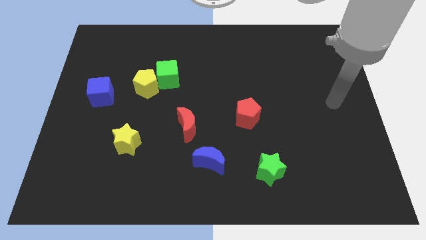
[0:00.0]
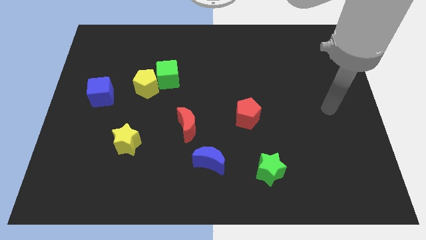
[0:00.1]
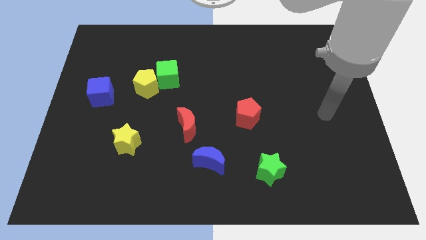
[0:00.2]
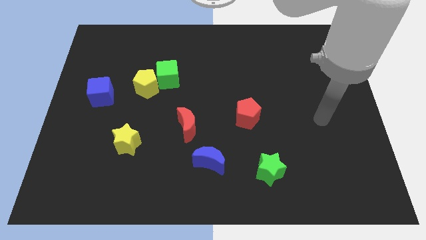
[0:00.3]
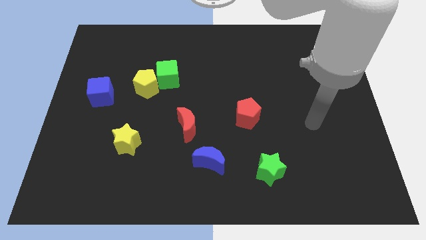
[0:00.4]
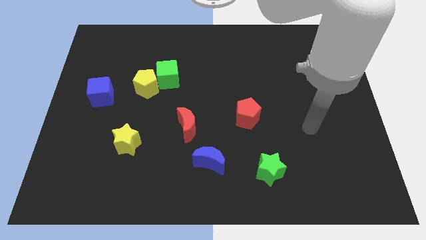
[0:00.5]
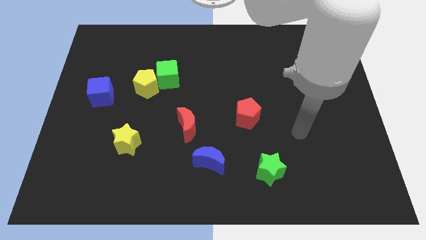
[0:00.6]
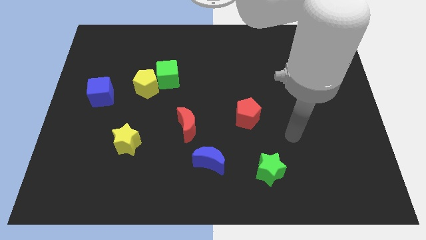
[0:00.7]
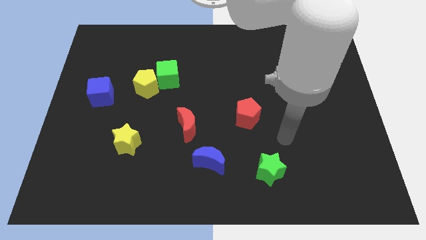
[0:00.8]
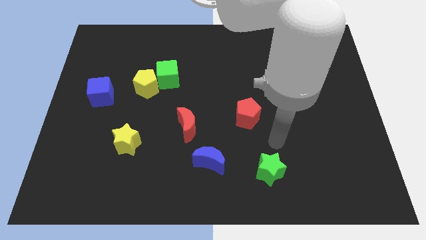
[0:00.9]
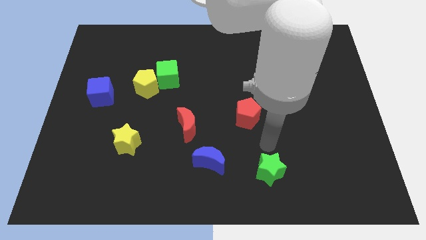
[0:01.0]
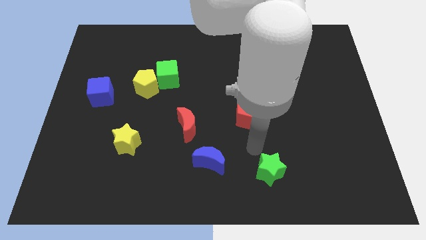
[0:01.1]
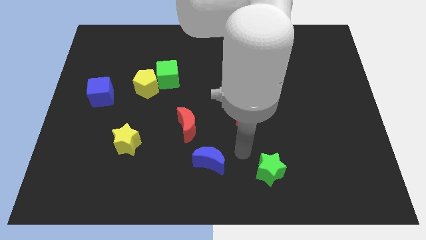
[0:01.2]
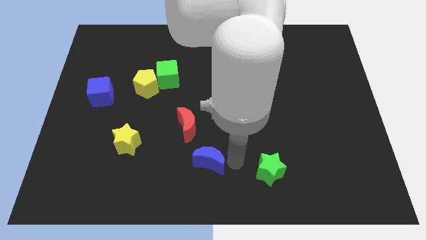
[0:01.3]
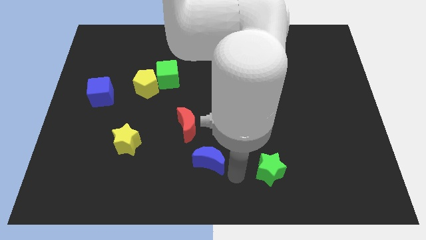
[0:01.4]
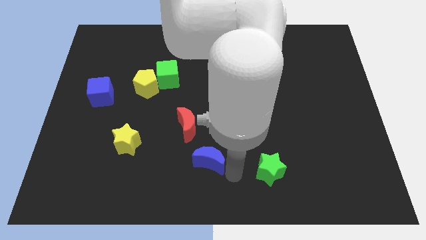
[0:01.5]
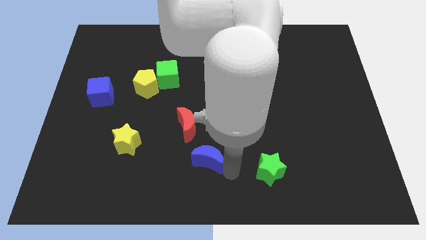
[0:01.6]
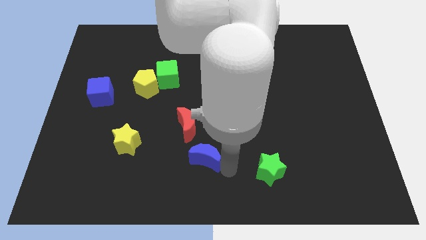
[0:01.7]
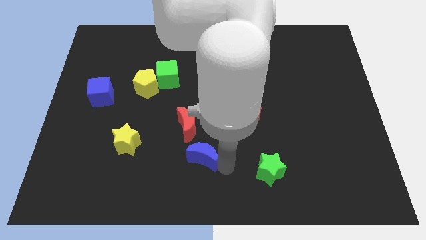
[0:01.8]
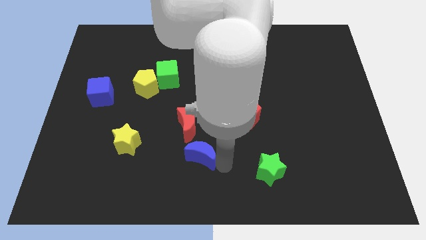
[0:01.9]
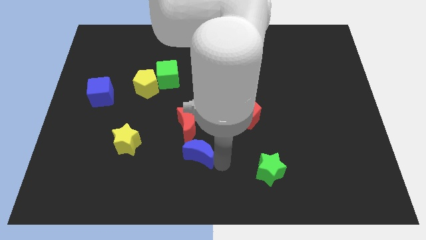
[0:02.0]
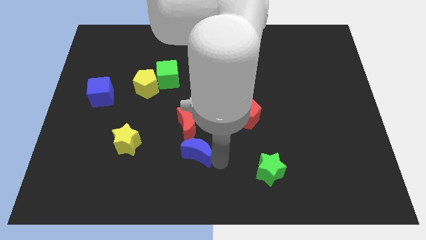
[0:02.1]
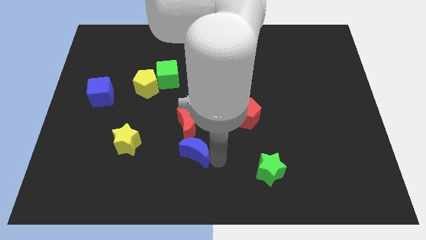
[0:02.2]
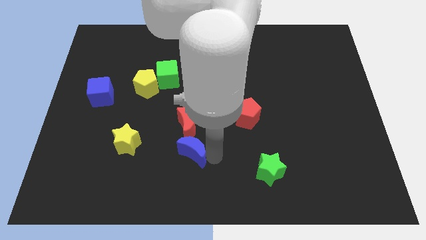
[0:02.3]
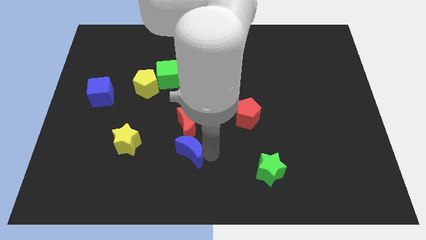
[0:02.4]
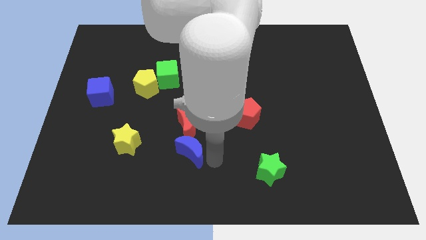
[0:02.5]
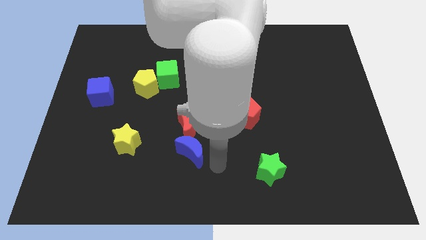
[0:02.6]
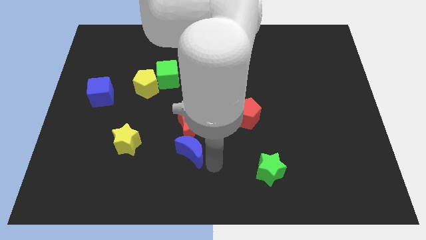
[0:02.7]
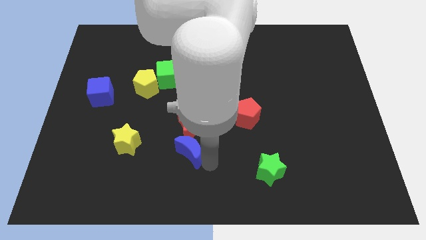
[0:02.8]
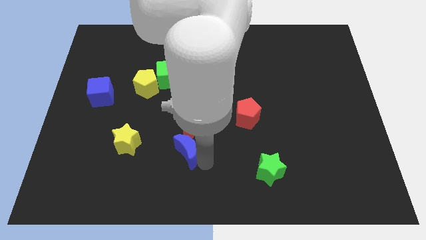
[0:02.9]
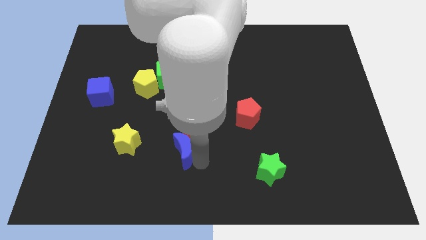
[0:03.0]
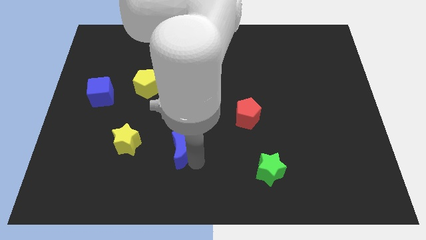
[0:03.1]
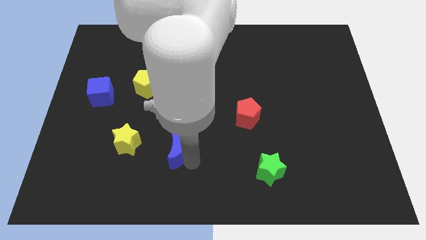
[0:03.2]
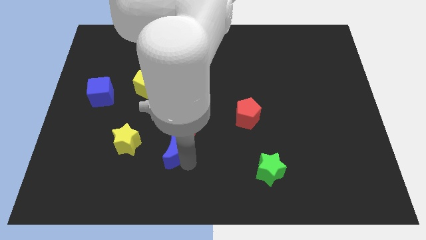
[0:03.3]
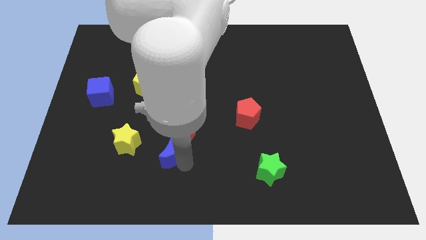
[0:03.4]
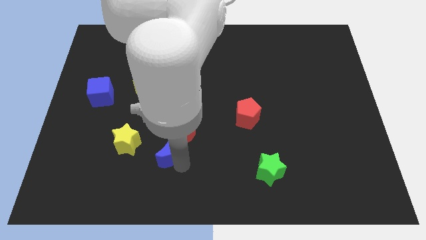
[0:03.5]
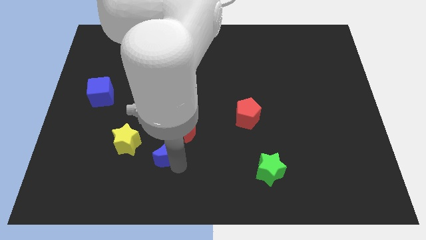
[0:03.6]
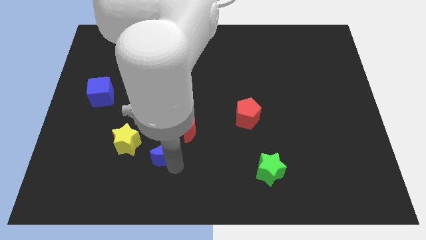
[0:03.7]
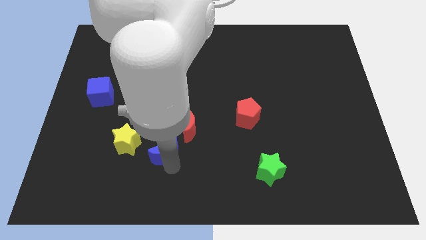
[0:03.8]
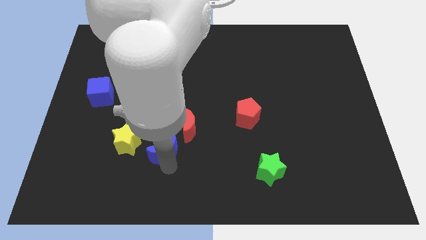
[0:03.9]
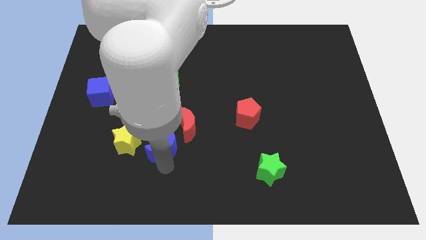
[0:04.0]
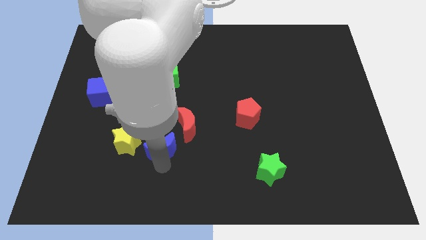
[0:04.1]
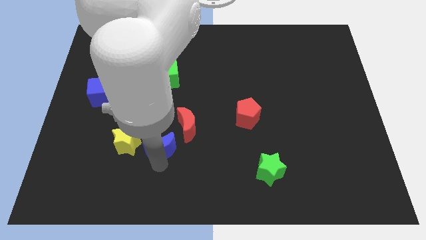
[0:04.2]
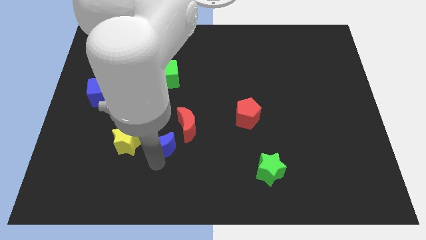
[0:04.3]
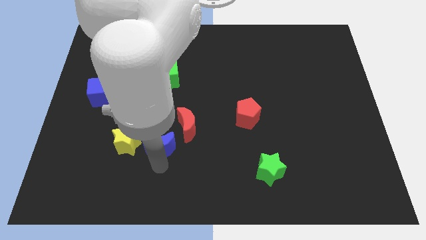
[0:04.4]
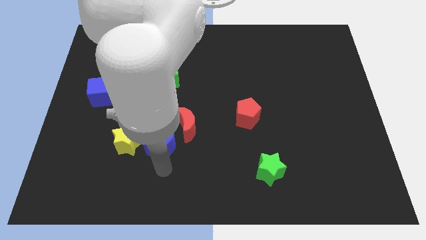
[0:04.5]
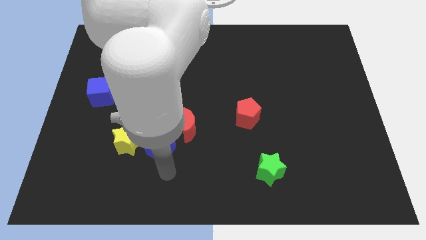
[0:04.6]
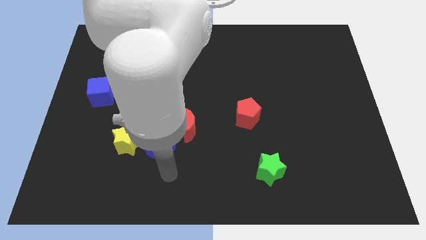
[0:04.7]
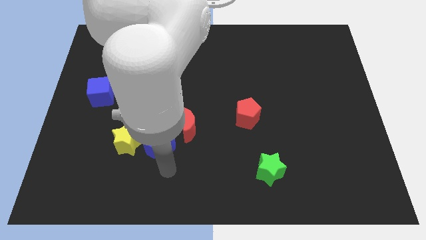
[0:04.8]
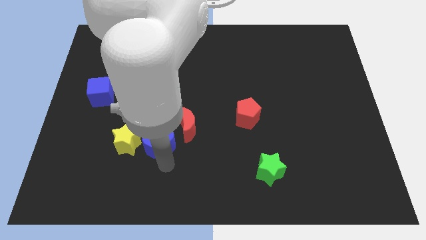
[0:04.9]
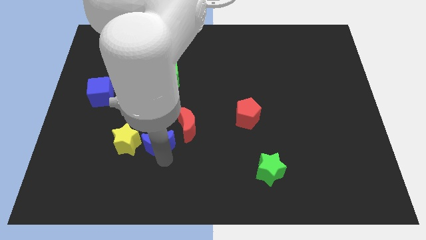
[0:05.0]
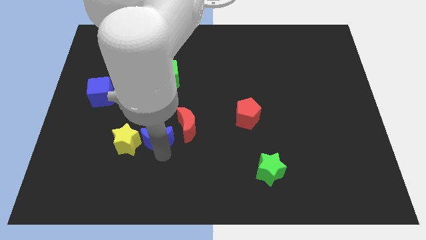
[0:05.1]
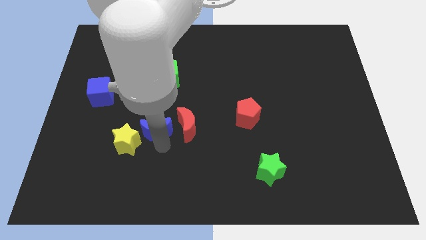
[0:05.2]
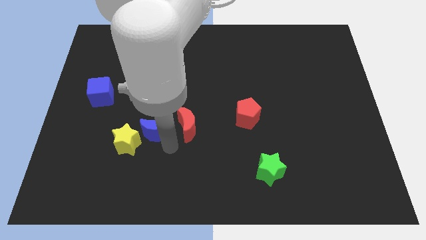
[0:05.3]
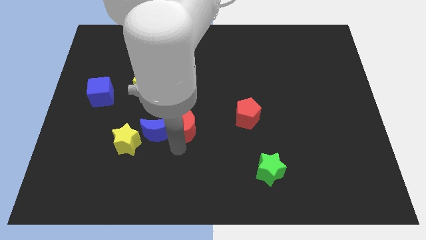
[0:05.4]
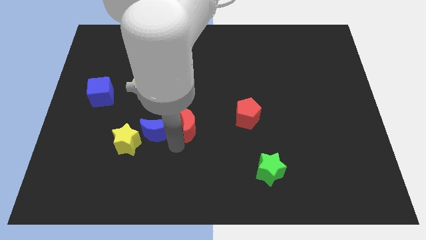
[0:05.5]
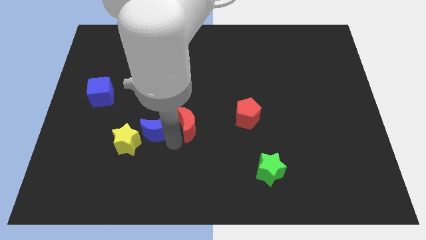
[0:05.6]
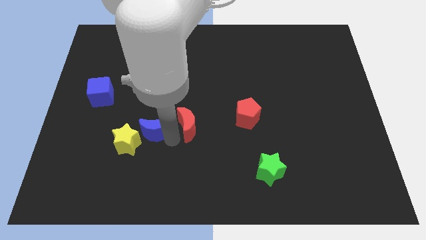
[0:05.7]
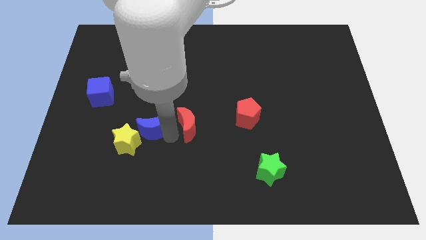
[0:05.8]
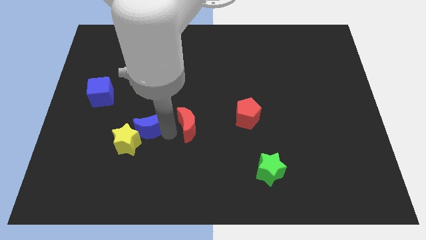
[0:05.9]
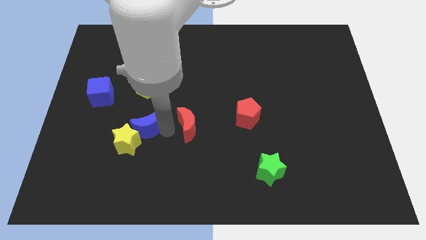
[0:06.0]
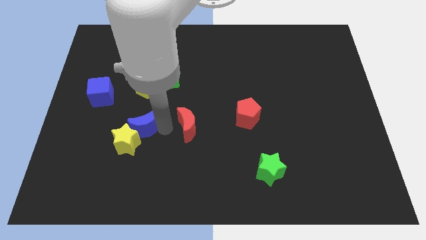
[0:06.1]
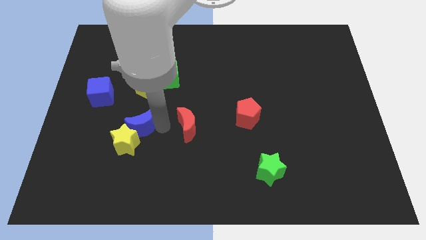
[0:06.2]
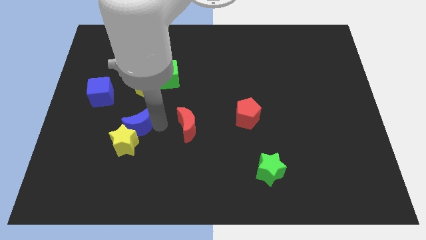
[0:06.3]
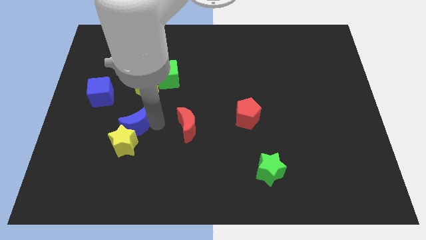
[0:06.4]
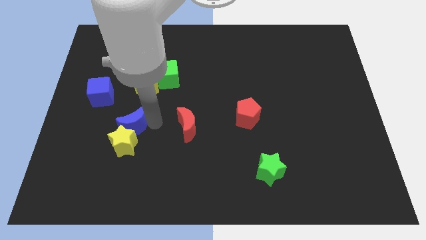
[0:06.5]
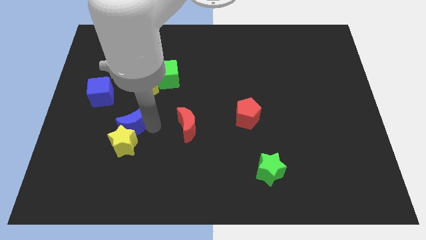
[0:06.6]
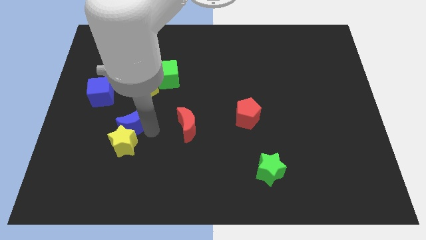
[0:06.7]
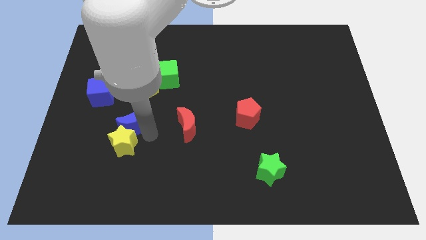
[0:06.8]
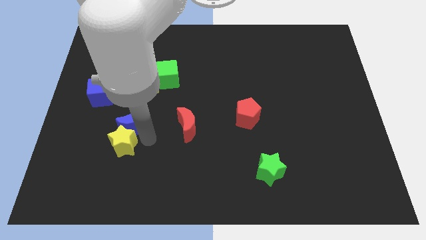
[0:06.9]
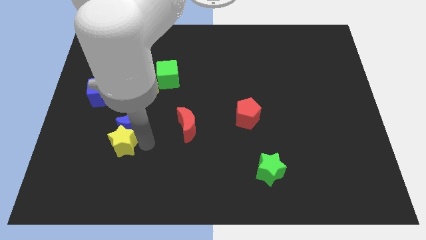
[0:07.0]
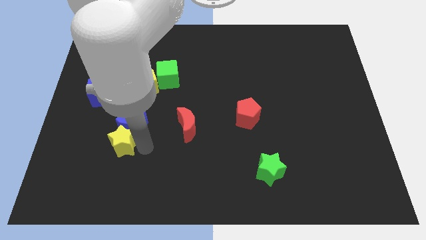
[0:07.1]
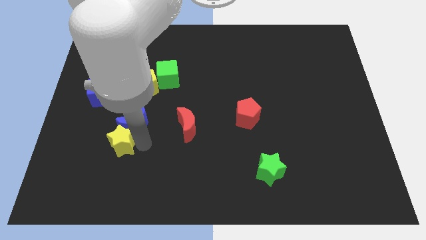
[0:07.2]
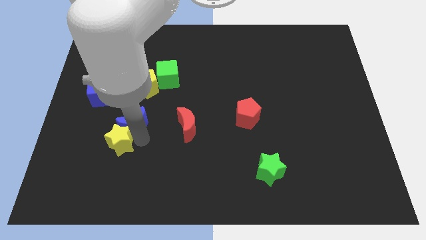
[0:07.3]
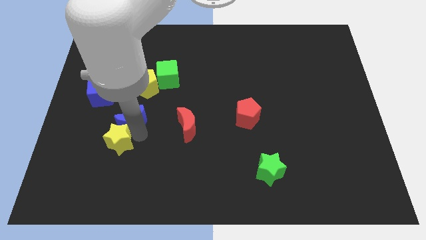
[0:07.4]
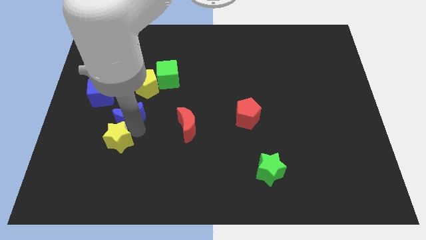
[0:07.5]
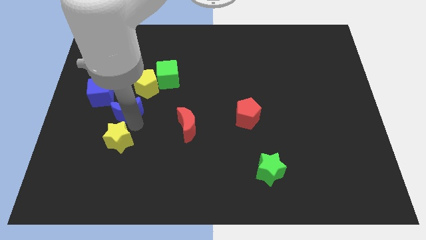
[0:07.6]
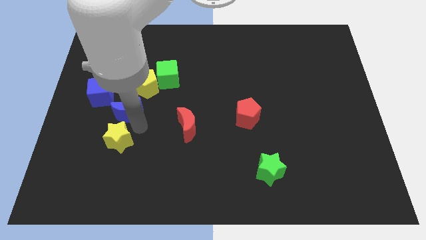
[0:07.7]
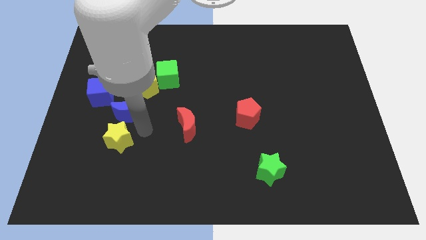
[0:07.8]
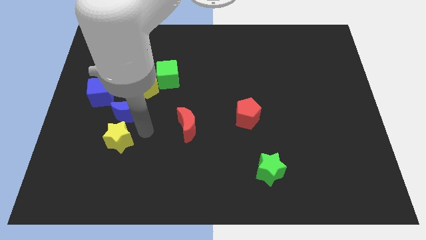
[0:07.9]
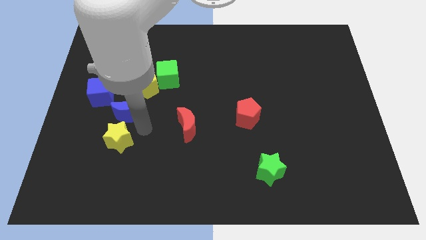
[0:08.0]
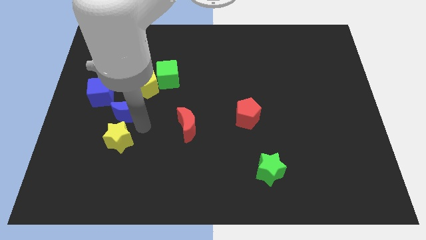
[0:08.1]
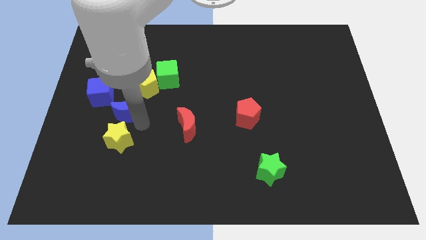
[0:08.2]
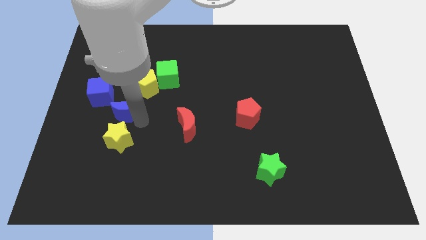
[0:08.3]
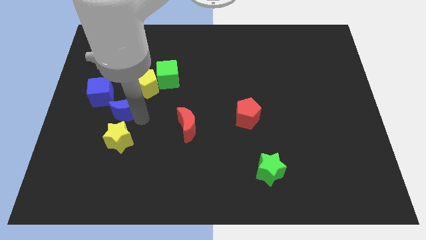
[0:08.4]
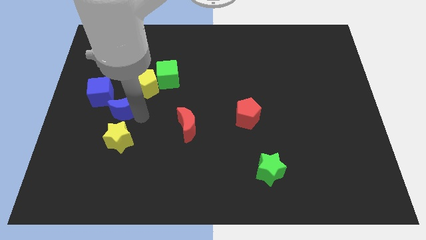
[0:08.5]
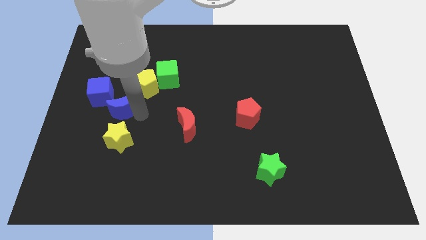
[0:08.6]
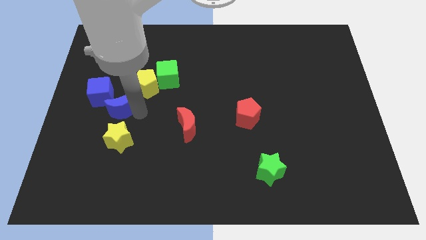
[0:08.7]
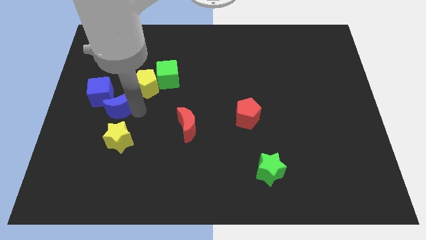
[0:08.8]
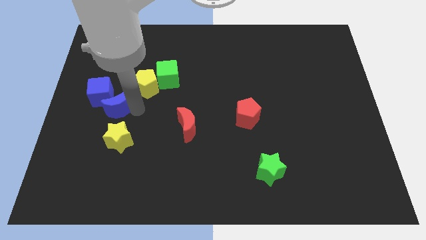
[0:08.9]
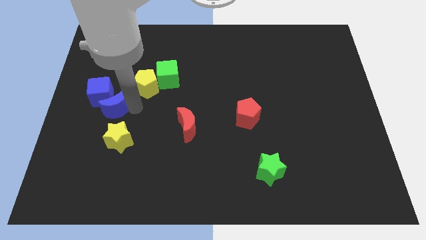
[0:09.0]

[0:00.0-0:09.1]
put the blue moon to the blue cube
